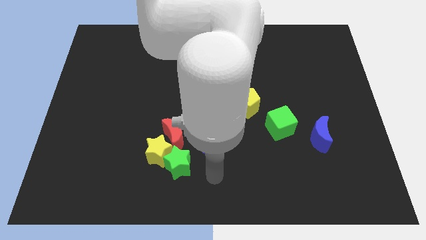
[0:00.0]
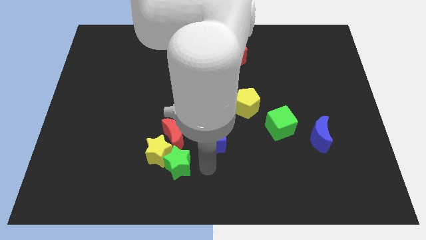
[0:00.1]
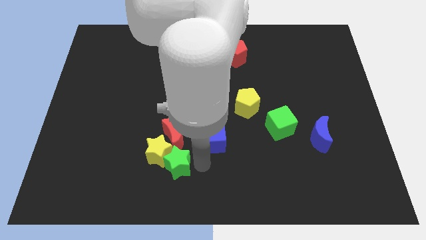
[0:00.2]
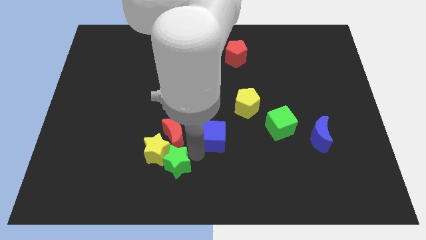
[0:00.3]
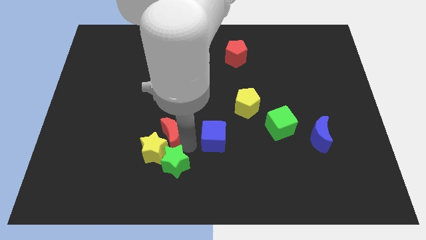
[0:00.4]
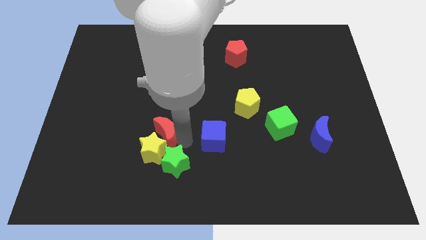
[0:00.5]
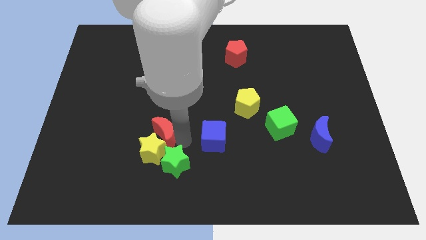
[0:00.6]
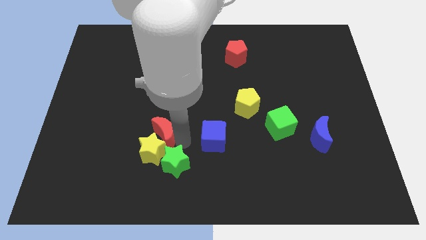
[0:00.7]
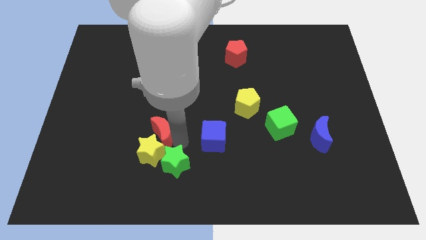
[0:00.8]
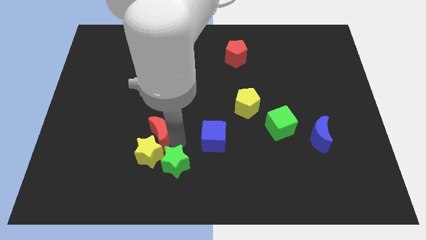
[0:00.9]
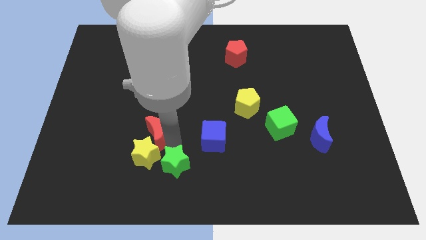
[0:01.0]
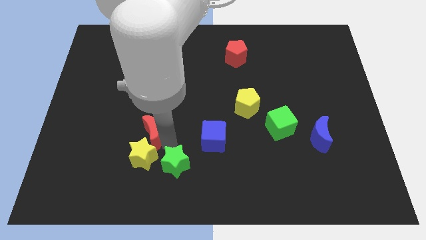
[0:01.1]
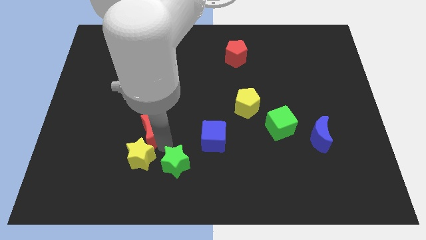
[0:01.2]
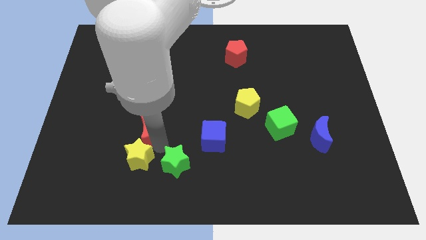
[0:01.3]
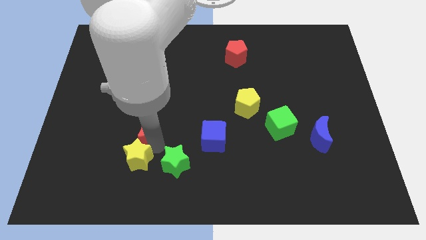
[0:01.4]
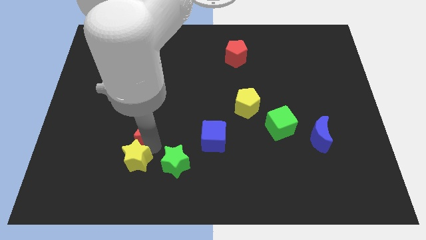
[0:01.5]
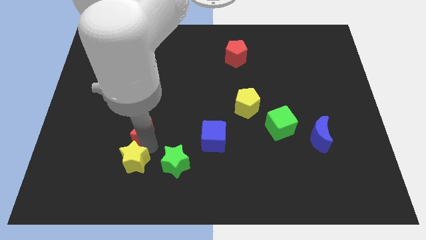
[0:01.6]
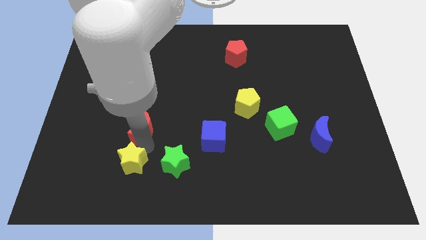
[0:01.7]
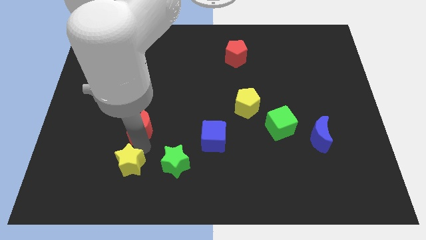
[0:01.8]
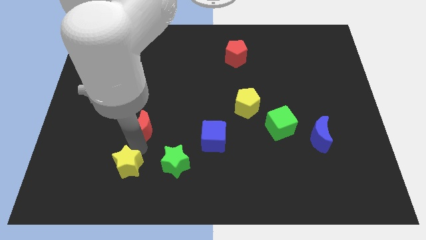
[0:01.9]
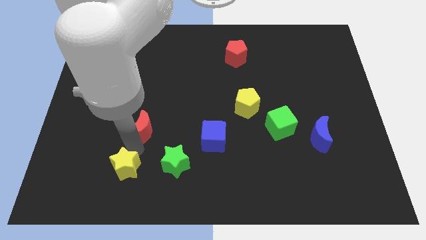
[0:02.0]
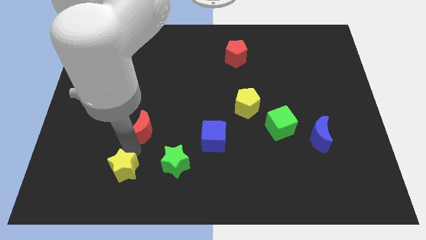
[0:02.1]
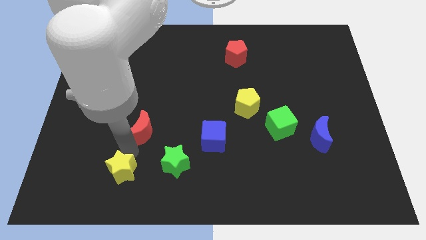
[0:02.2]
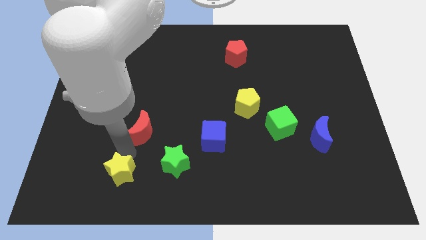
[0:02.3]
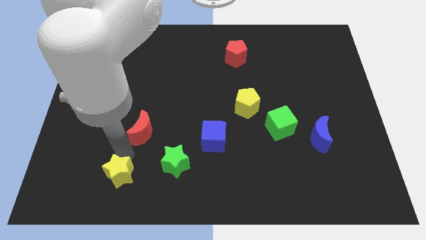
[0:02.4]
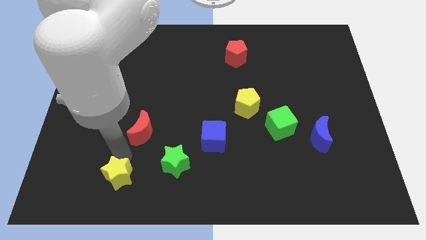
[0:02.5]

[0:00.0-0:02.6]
move the yellow star away from the red moon and green star

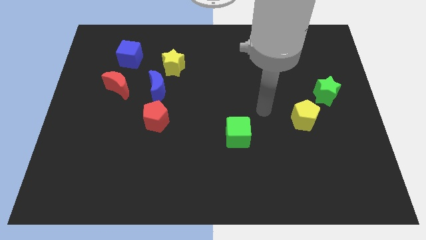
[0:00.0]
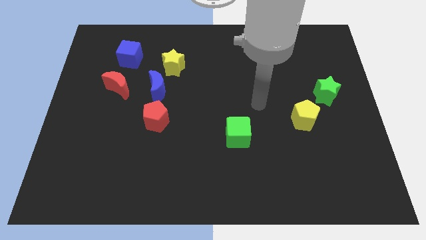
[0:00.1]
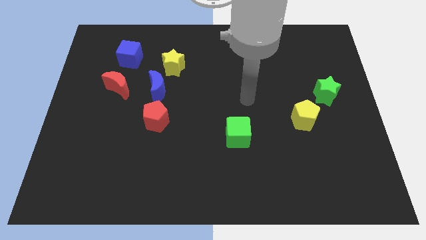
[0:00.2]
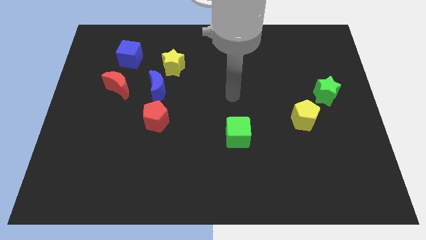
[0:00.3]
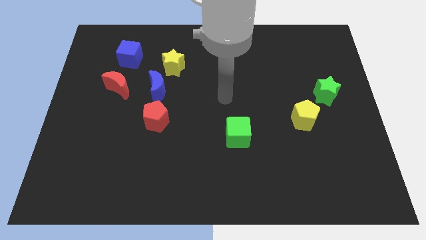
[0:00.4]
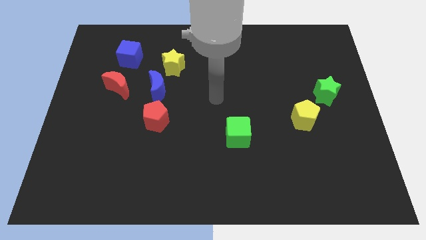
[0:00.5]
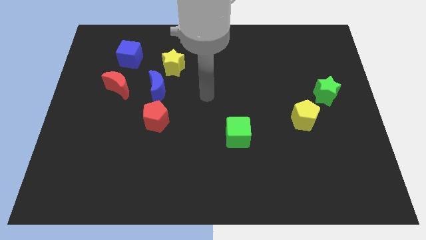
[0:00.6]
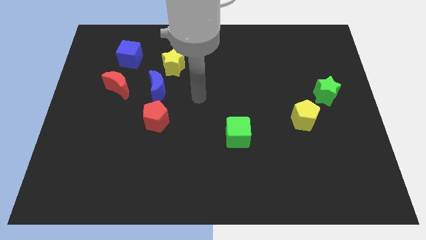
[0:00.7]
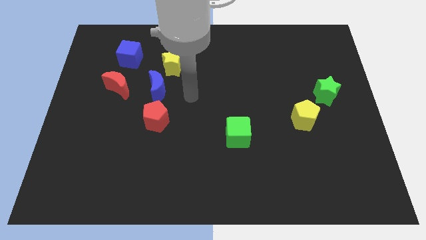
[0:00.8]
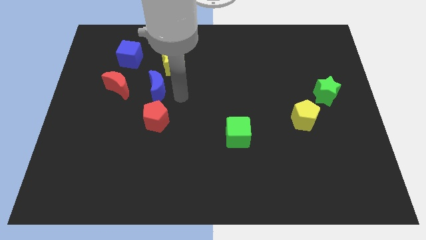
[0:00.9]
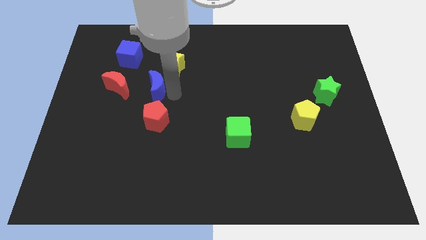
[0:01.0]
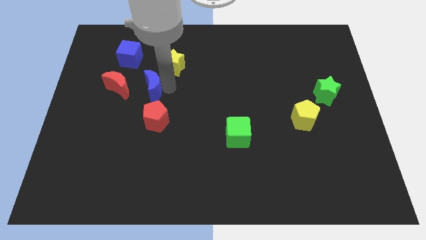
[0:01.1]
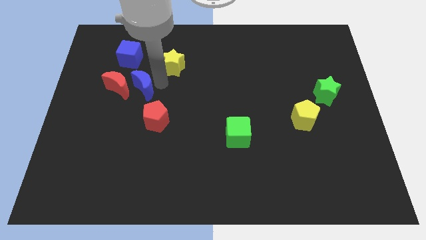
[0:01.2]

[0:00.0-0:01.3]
move the yellow star away from the blue moon

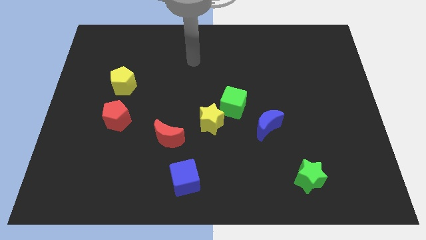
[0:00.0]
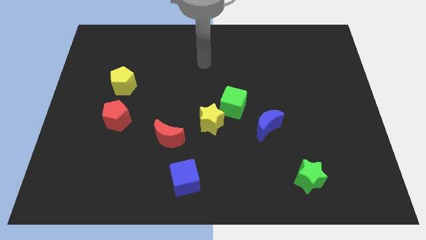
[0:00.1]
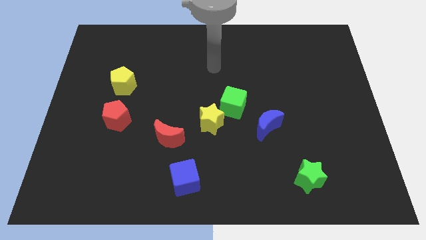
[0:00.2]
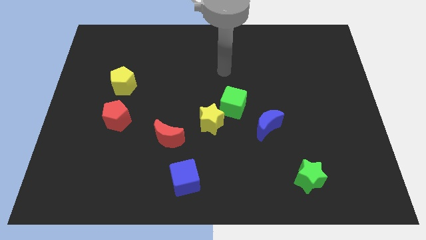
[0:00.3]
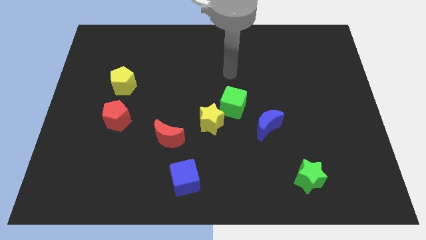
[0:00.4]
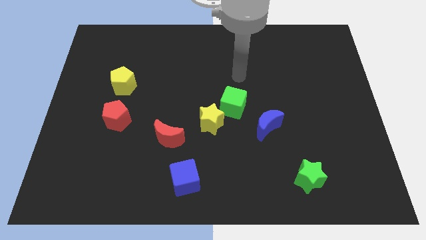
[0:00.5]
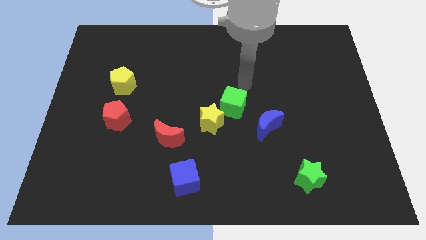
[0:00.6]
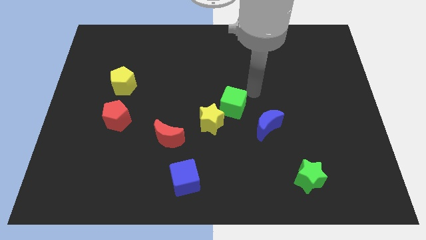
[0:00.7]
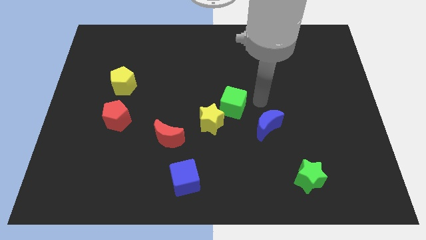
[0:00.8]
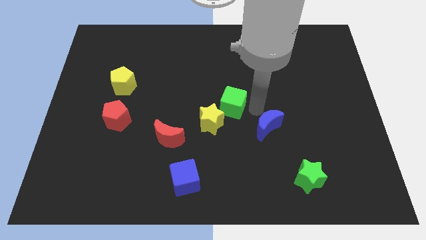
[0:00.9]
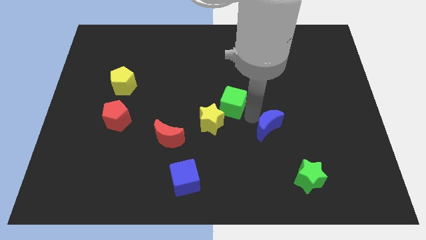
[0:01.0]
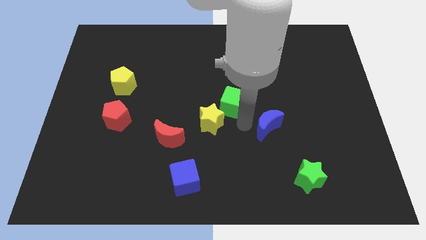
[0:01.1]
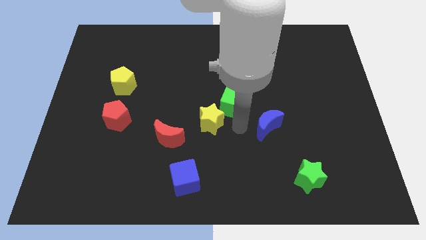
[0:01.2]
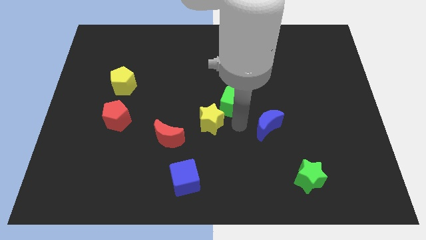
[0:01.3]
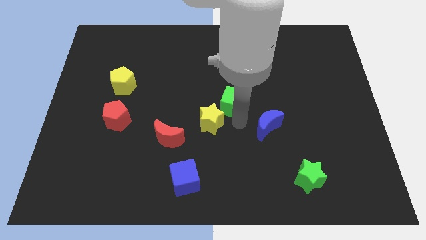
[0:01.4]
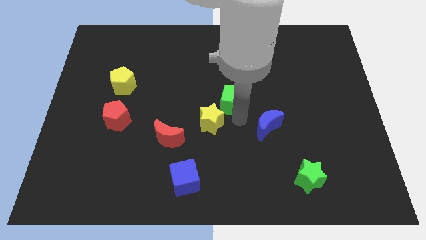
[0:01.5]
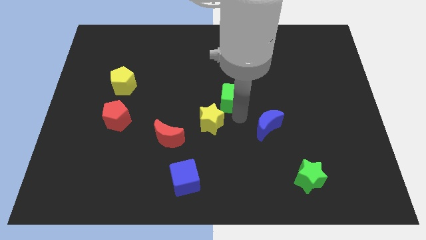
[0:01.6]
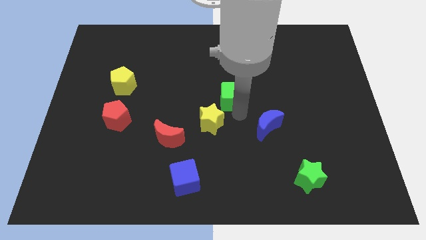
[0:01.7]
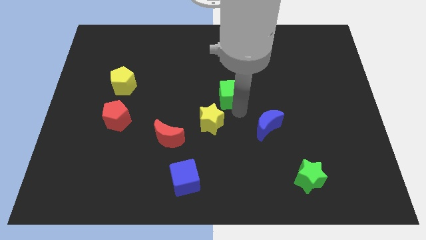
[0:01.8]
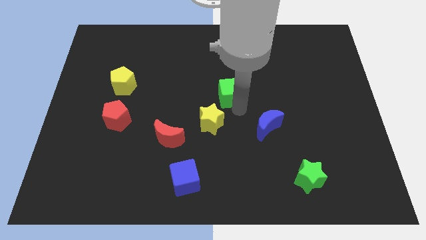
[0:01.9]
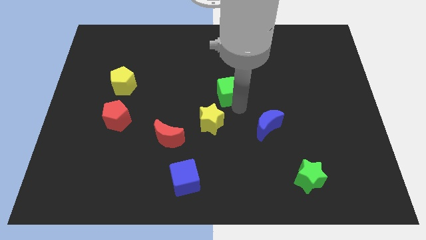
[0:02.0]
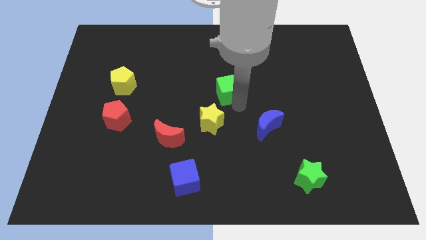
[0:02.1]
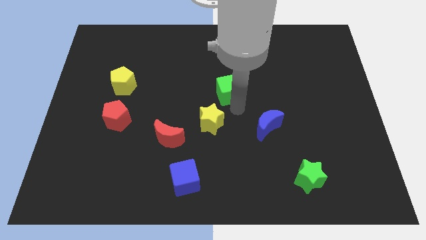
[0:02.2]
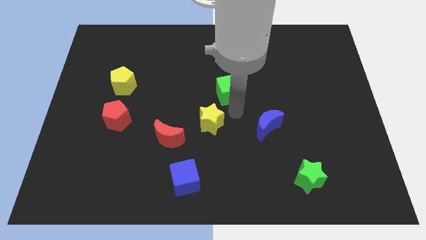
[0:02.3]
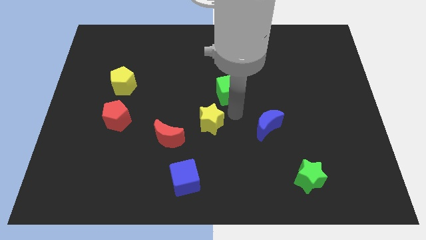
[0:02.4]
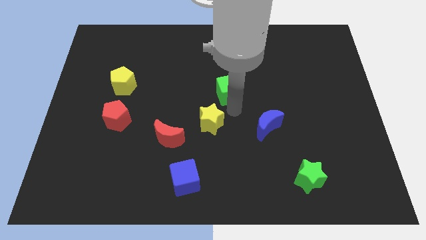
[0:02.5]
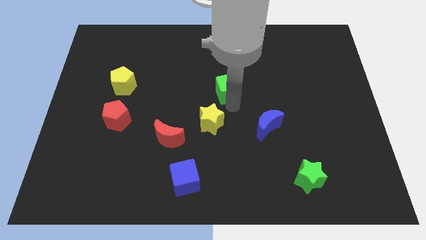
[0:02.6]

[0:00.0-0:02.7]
move the green cube away from the yellow star and blue moon

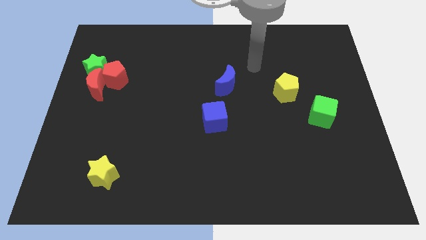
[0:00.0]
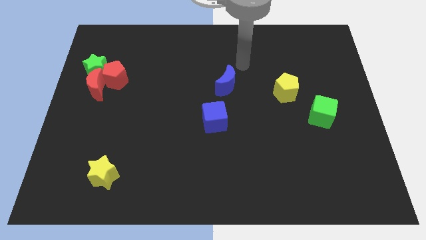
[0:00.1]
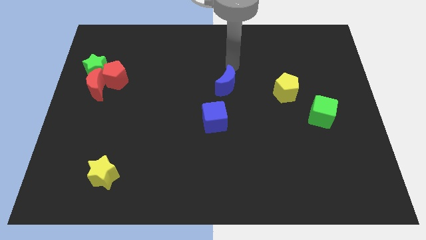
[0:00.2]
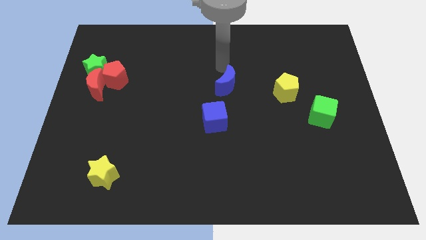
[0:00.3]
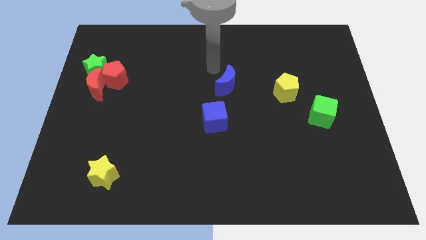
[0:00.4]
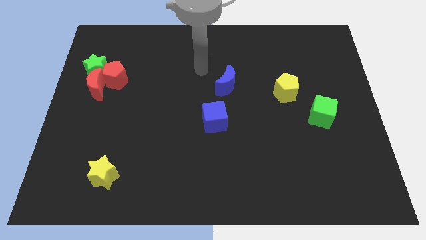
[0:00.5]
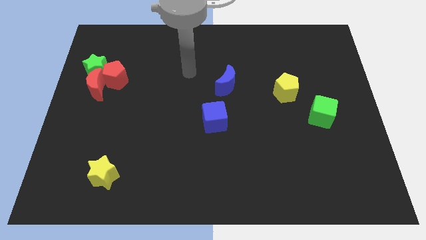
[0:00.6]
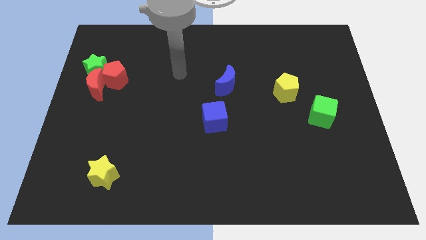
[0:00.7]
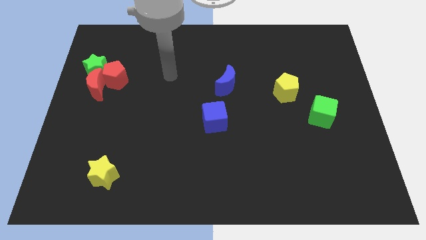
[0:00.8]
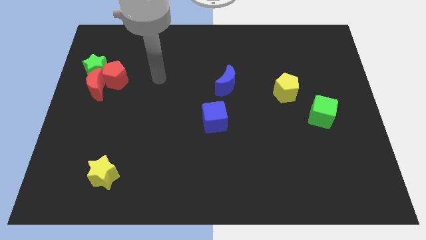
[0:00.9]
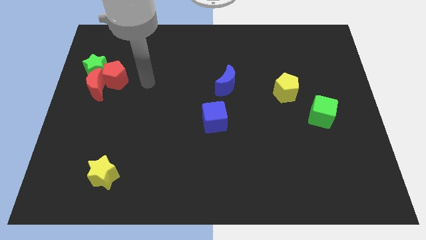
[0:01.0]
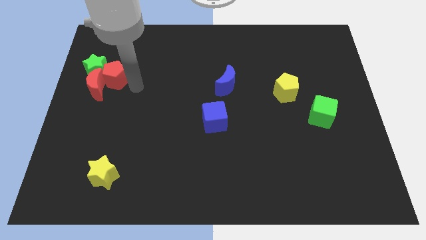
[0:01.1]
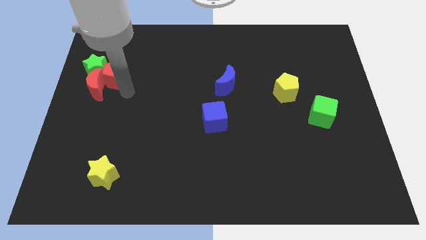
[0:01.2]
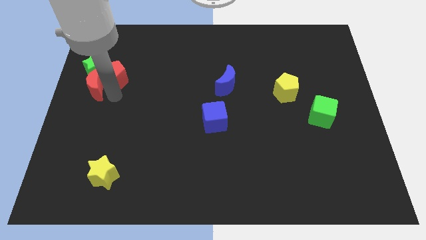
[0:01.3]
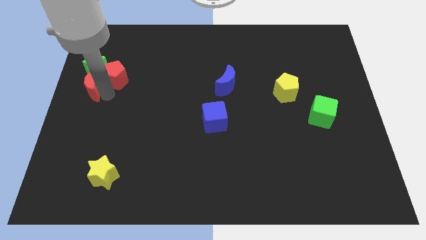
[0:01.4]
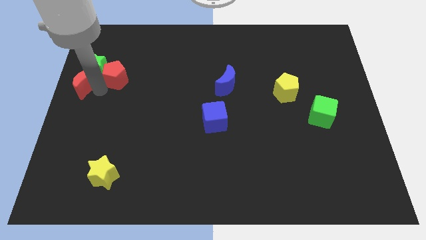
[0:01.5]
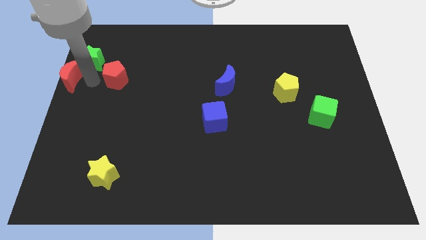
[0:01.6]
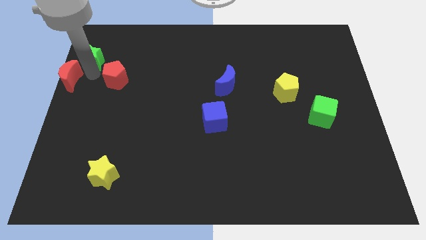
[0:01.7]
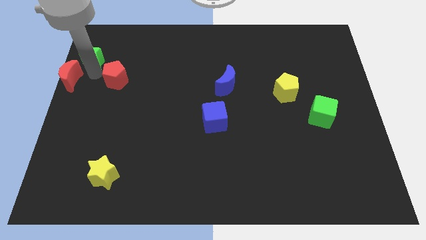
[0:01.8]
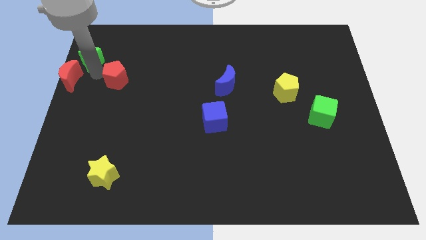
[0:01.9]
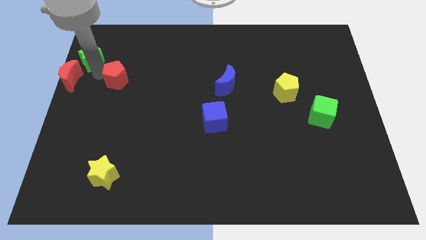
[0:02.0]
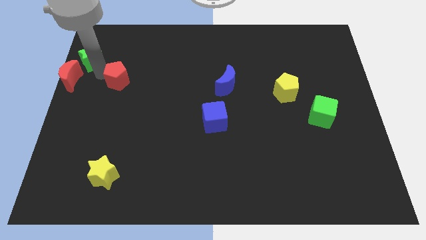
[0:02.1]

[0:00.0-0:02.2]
separate the red pentagon from the red moon and green star

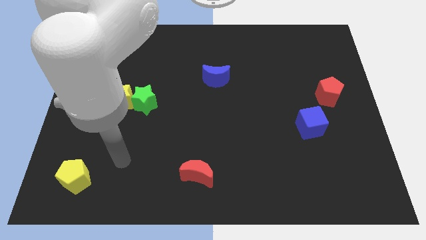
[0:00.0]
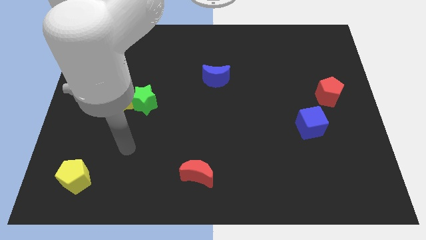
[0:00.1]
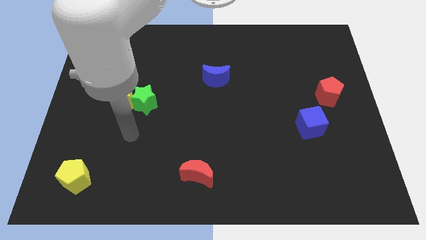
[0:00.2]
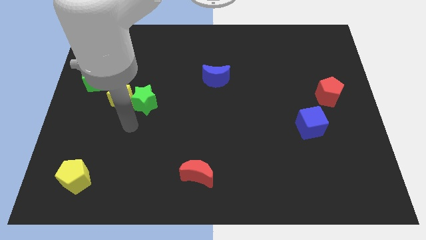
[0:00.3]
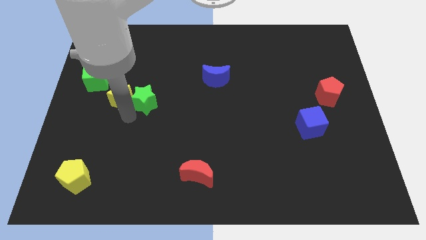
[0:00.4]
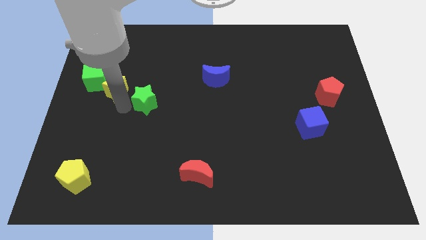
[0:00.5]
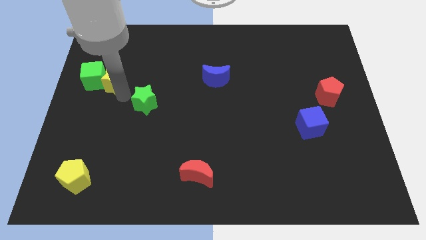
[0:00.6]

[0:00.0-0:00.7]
move the green star away from the yellow star
